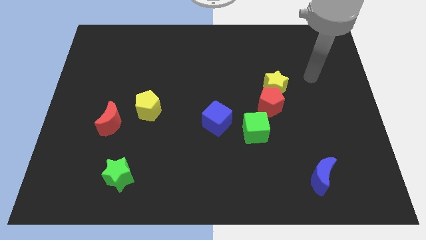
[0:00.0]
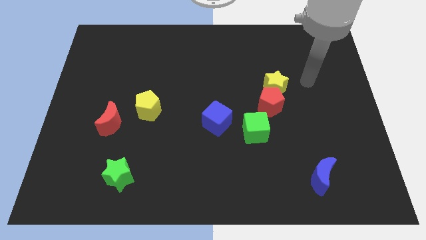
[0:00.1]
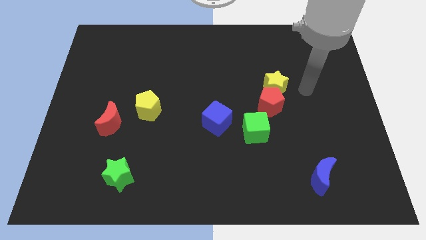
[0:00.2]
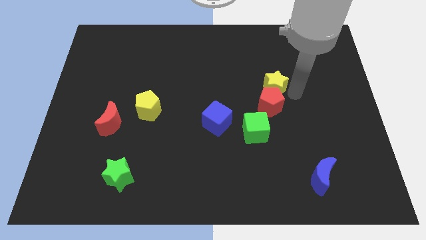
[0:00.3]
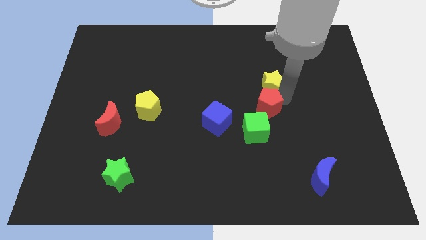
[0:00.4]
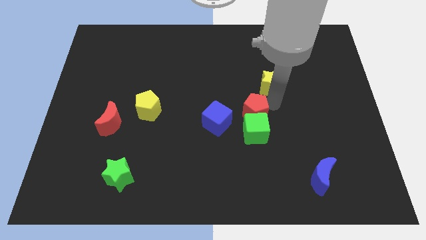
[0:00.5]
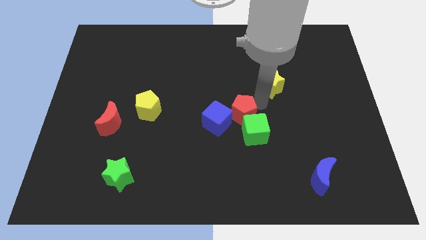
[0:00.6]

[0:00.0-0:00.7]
move the yellow star away from the red pentagon

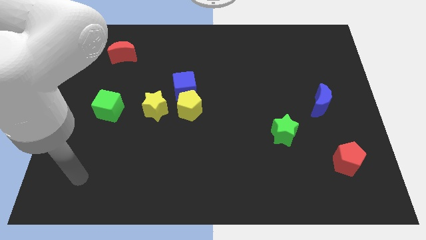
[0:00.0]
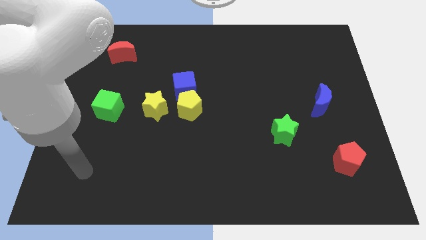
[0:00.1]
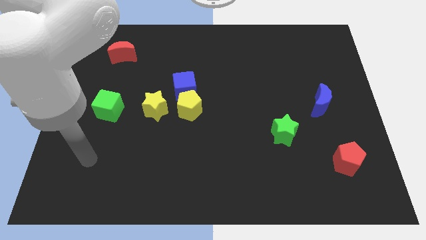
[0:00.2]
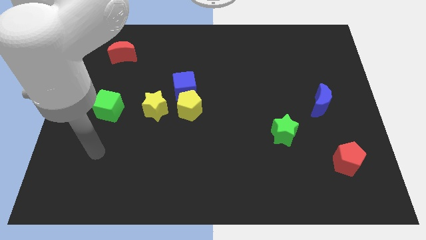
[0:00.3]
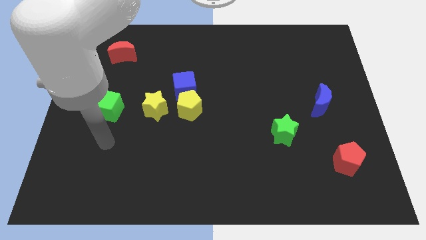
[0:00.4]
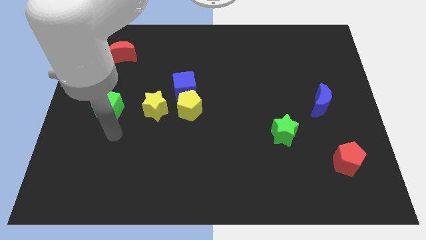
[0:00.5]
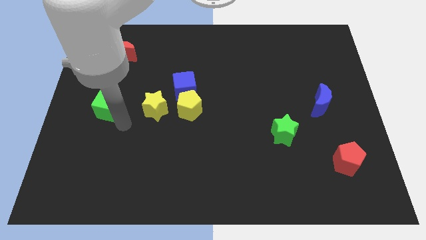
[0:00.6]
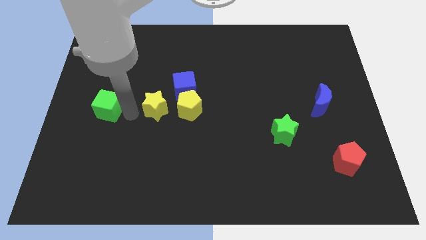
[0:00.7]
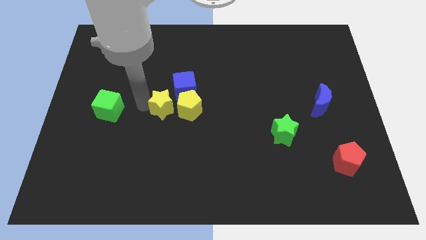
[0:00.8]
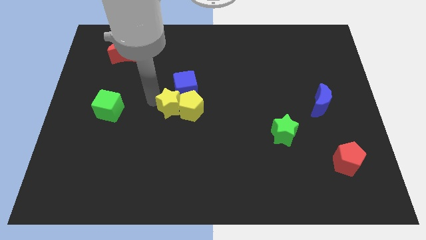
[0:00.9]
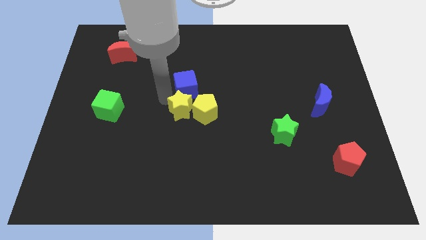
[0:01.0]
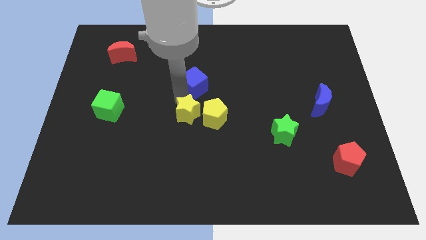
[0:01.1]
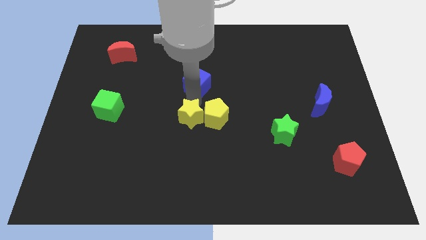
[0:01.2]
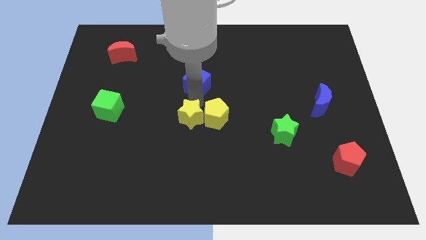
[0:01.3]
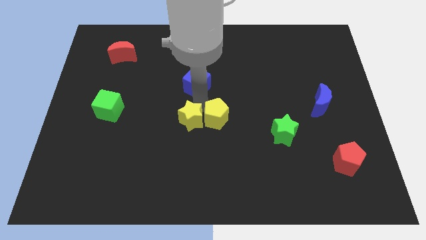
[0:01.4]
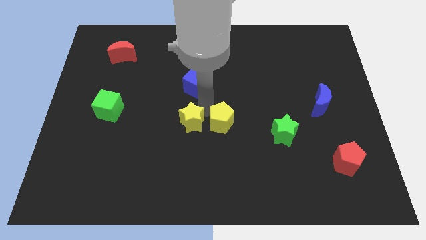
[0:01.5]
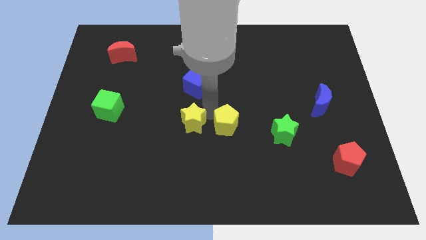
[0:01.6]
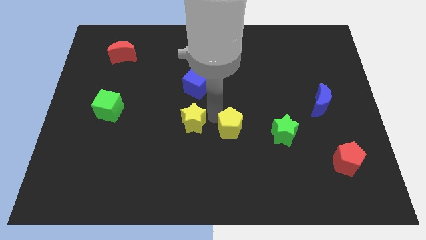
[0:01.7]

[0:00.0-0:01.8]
pull the yellow pentagon apart from the blue cube and yellow star

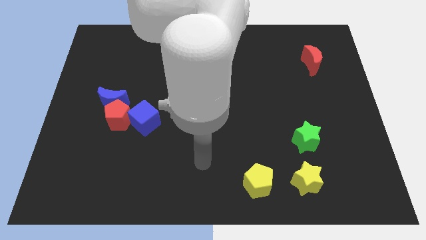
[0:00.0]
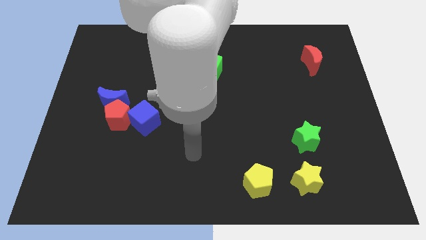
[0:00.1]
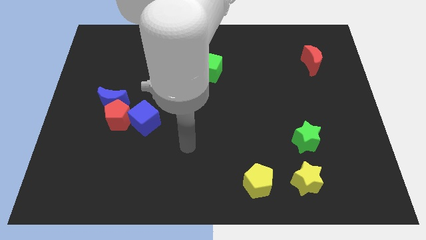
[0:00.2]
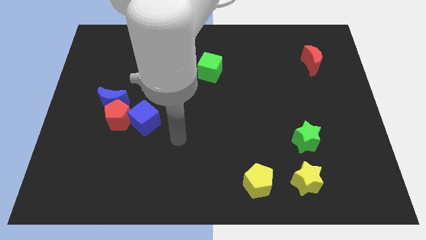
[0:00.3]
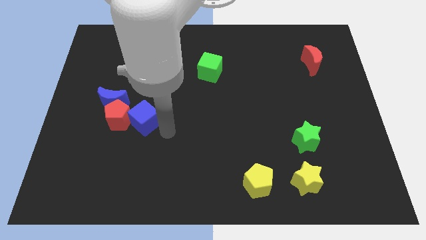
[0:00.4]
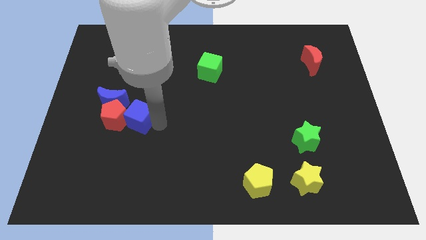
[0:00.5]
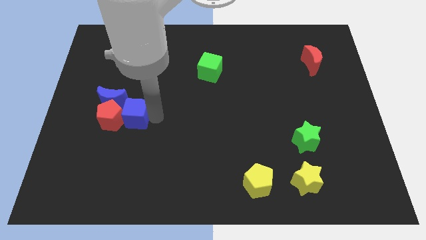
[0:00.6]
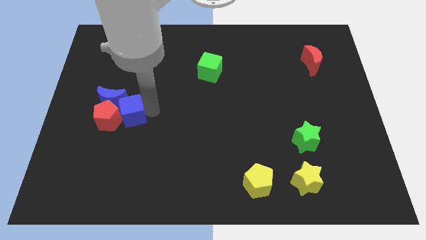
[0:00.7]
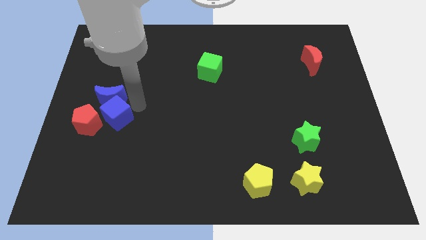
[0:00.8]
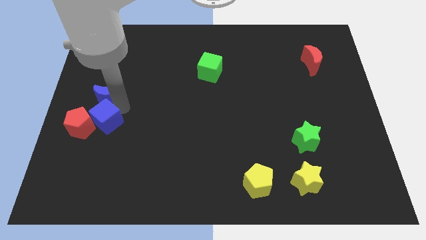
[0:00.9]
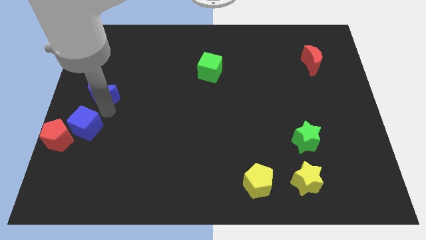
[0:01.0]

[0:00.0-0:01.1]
move the red pentagon away from the blue moon and blue cube

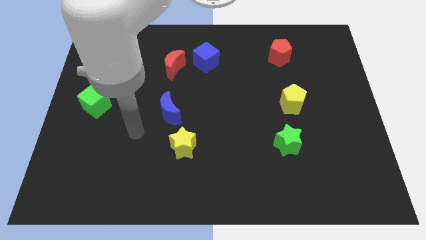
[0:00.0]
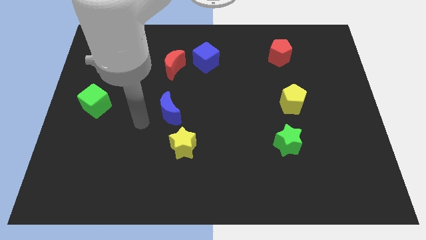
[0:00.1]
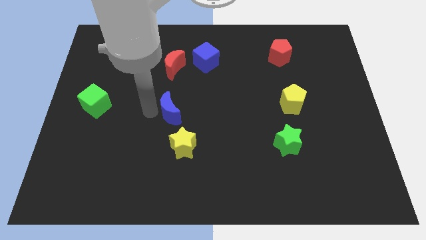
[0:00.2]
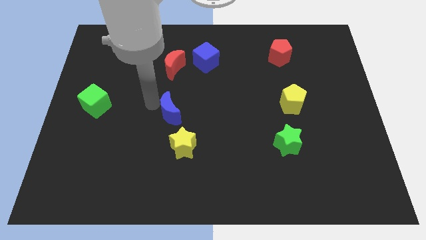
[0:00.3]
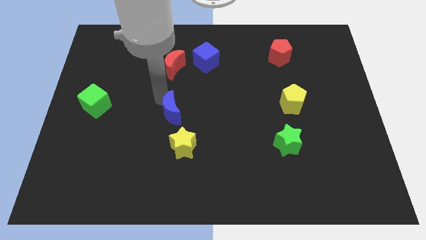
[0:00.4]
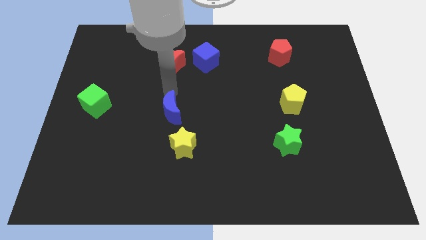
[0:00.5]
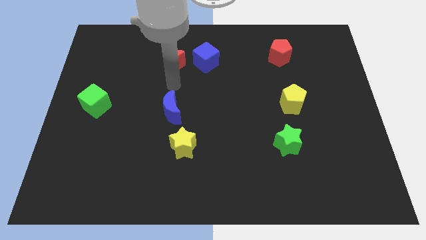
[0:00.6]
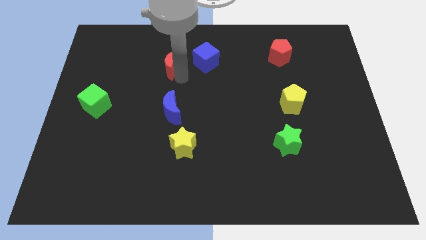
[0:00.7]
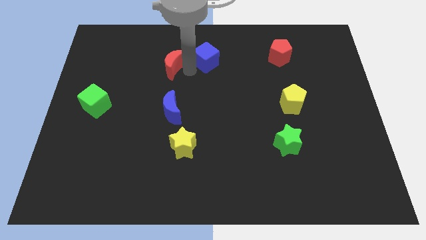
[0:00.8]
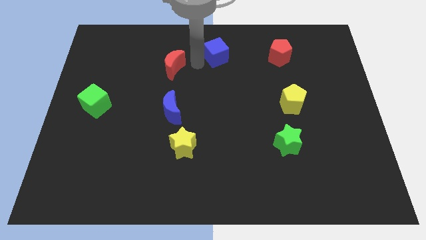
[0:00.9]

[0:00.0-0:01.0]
pull the red moon apart from the blue cube

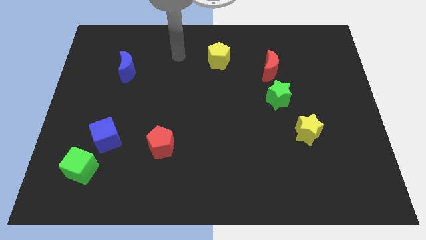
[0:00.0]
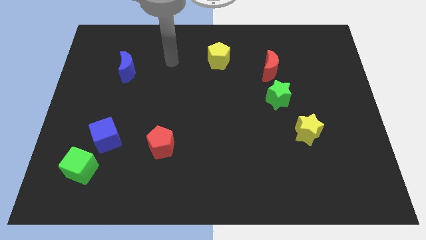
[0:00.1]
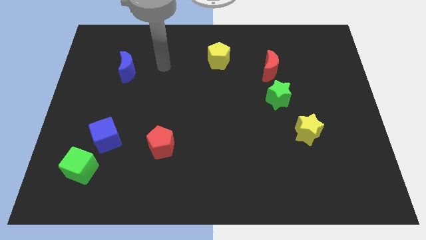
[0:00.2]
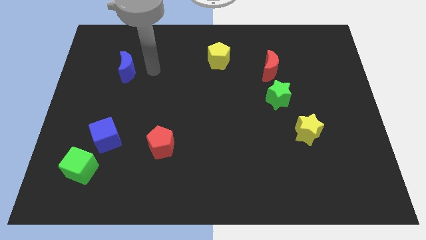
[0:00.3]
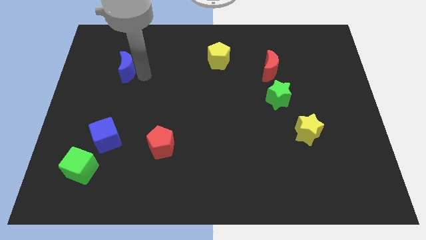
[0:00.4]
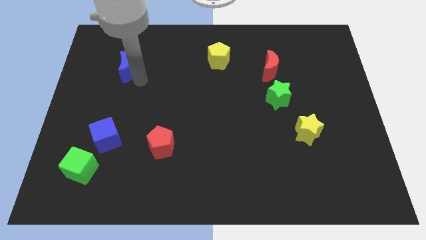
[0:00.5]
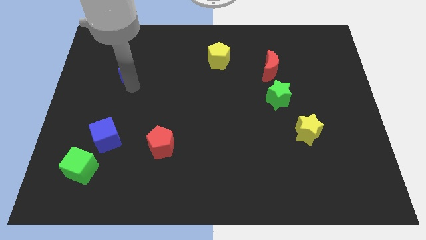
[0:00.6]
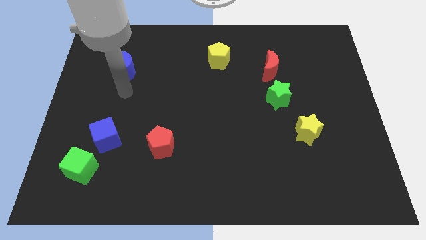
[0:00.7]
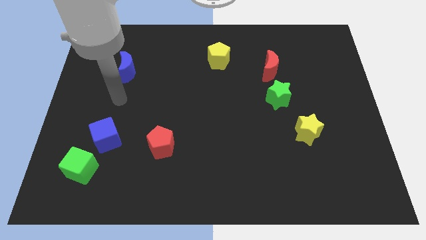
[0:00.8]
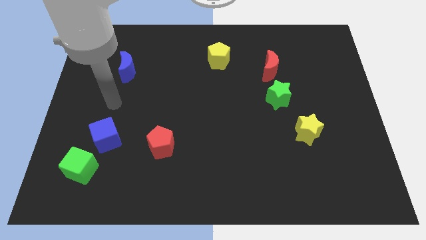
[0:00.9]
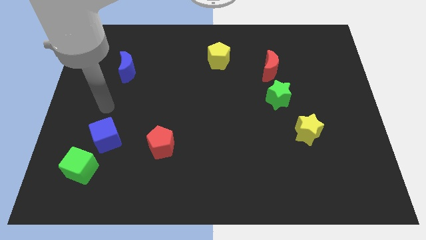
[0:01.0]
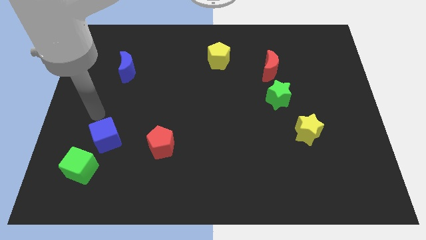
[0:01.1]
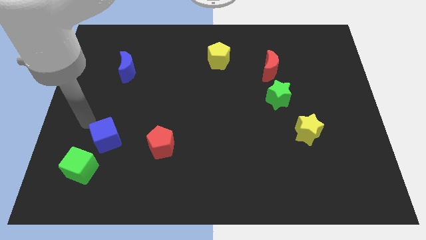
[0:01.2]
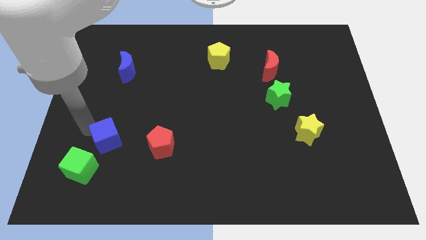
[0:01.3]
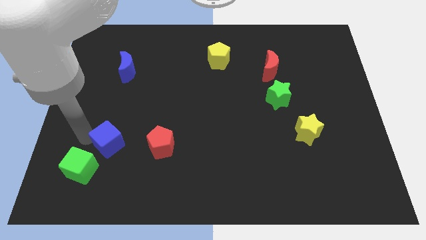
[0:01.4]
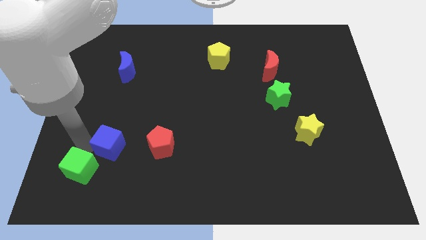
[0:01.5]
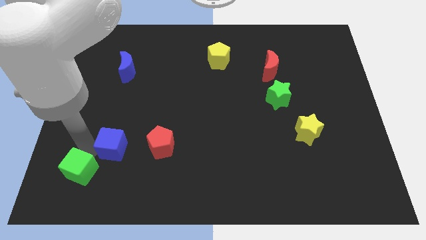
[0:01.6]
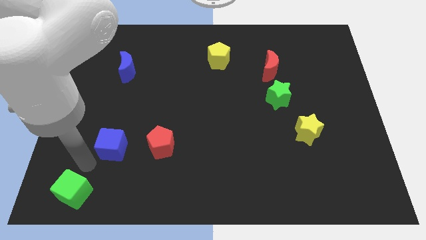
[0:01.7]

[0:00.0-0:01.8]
pull the blue cube apart from the green cube

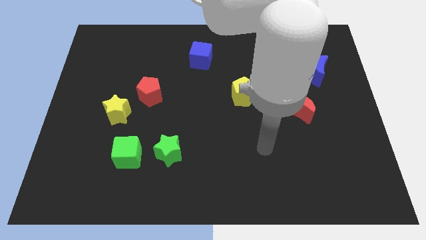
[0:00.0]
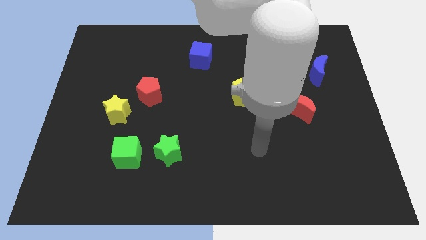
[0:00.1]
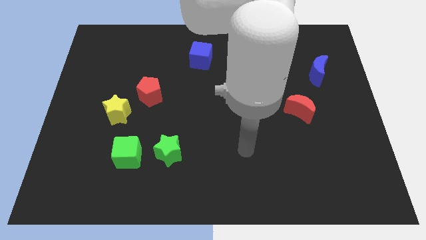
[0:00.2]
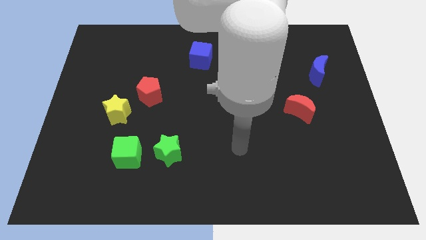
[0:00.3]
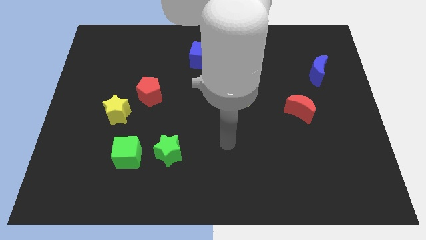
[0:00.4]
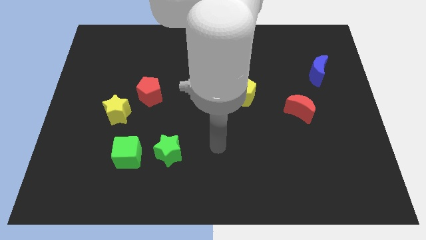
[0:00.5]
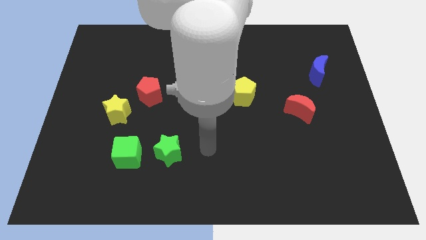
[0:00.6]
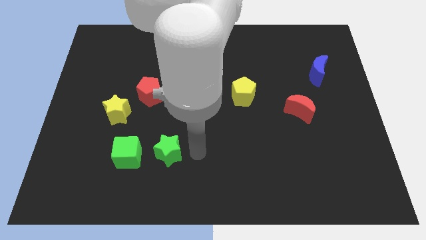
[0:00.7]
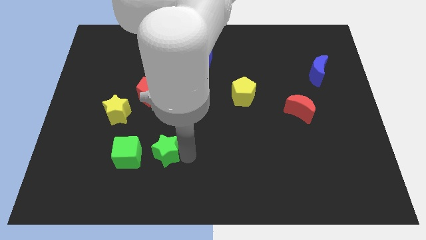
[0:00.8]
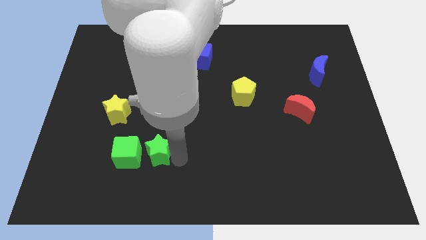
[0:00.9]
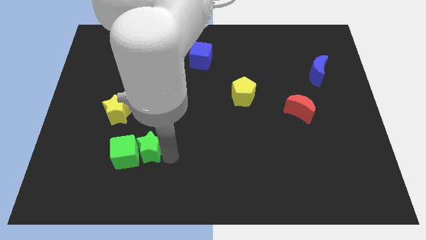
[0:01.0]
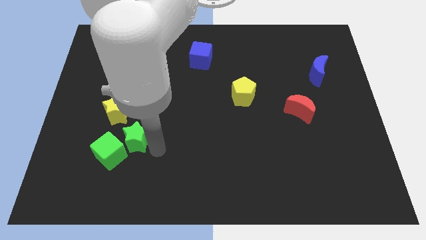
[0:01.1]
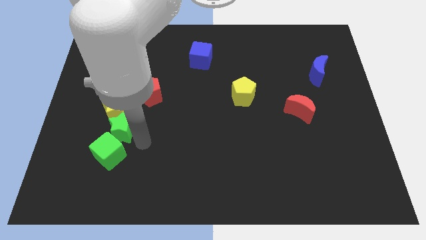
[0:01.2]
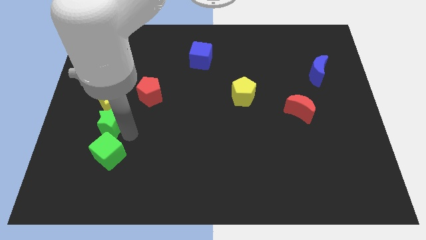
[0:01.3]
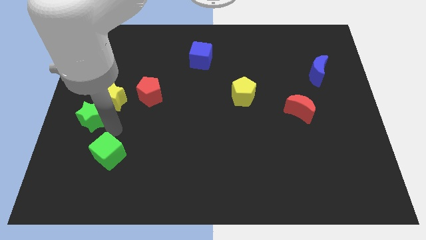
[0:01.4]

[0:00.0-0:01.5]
pull the green cube apart from the green star

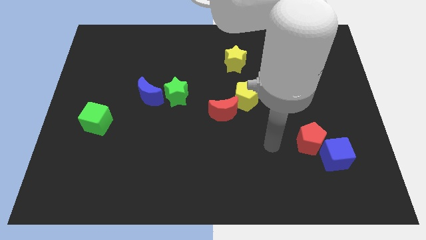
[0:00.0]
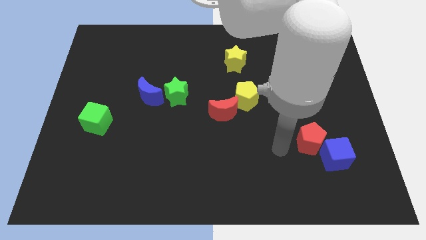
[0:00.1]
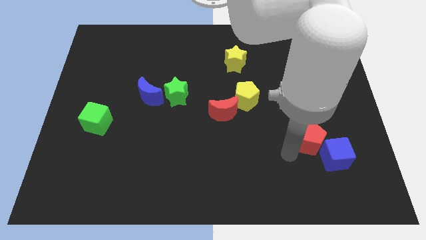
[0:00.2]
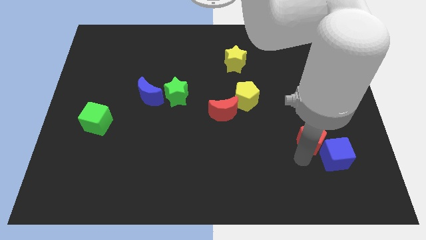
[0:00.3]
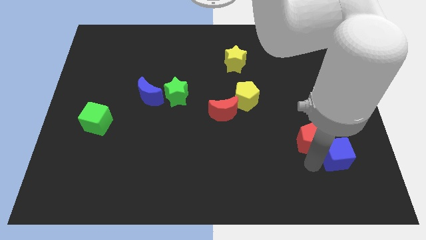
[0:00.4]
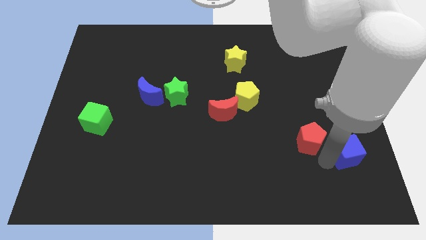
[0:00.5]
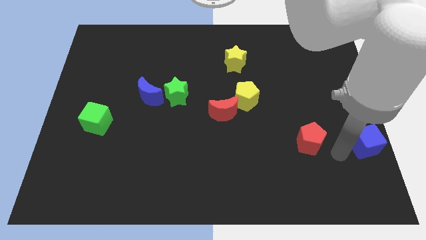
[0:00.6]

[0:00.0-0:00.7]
separate the red pentagon from the blue cube

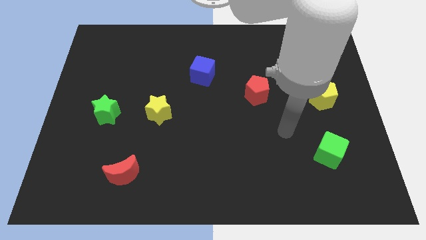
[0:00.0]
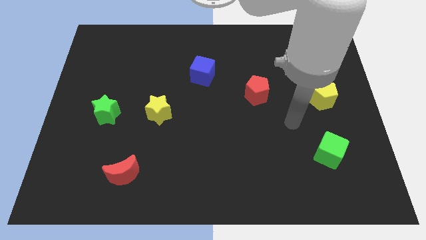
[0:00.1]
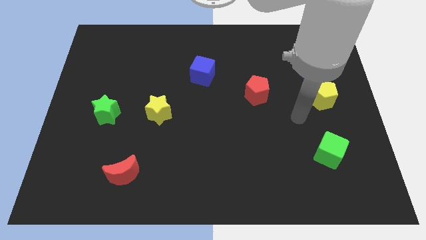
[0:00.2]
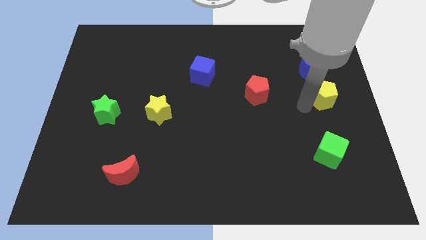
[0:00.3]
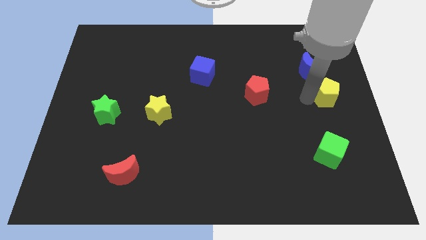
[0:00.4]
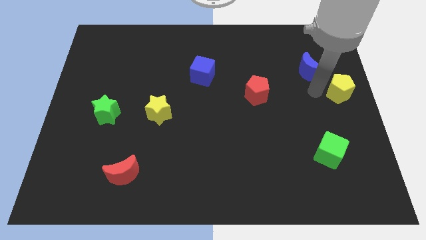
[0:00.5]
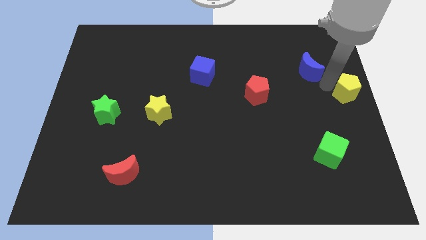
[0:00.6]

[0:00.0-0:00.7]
pull the blue moon apart from the yellow pentagon

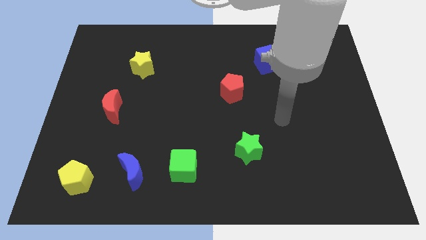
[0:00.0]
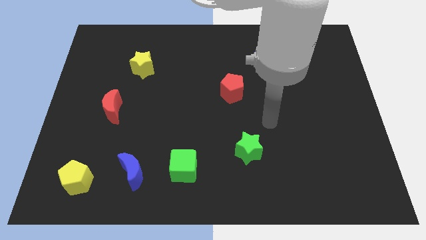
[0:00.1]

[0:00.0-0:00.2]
separate the blue moon from the green cube

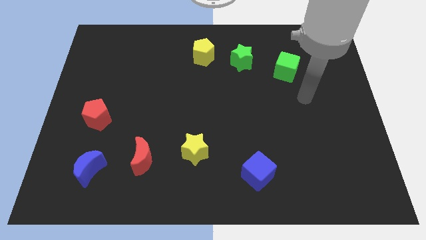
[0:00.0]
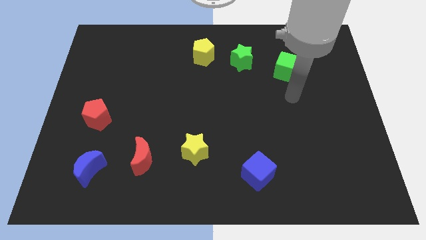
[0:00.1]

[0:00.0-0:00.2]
separate the green star from the yellow pentagon
